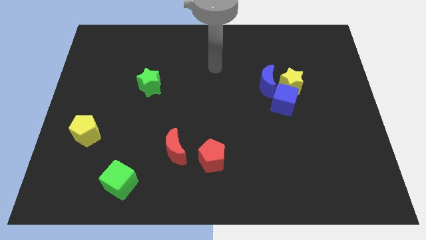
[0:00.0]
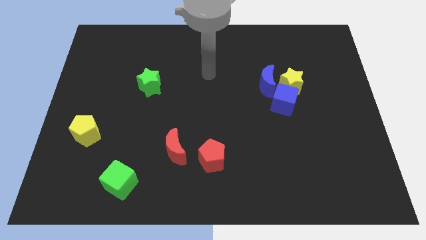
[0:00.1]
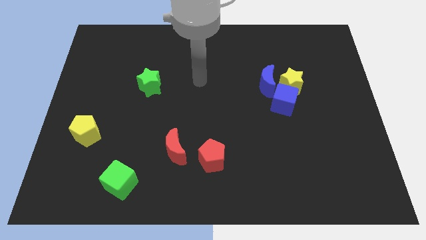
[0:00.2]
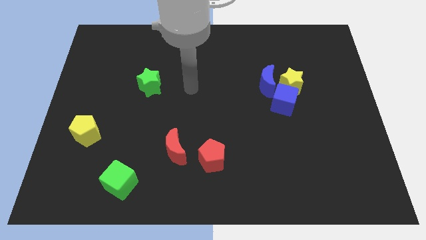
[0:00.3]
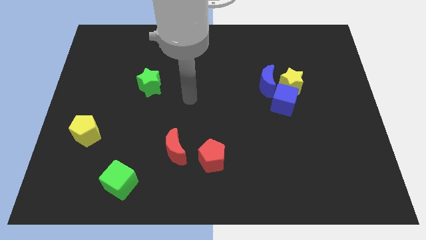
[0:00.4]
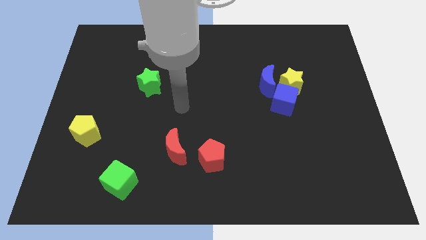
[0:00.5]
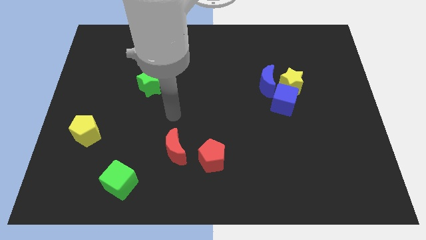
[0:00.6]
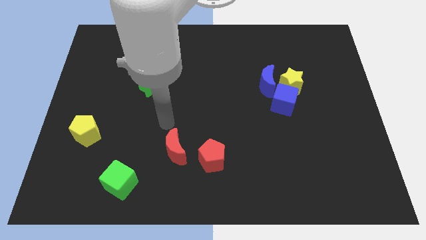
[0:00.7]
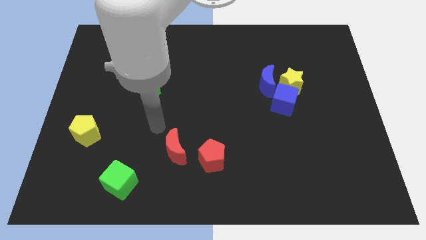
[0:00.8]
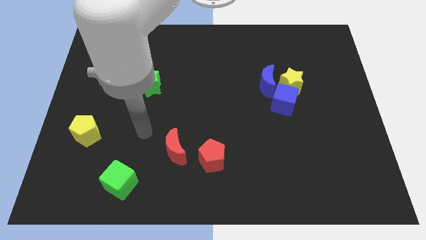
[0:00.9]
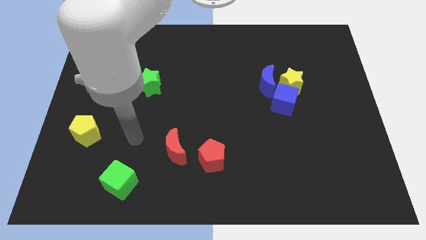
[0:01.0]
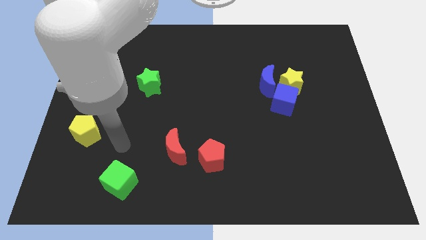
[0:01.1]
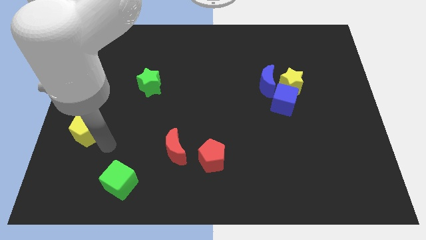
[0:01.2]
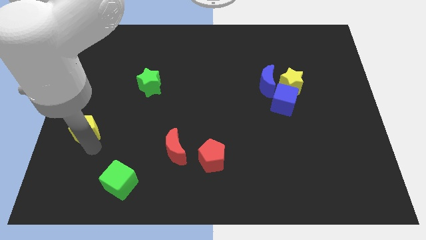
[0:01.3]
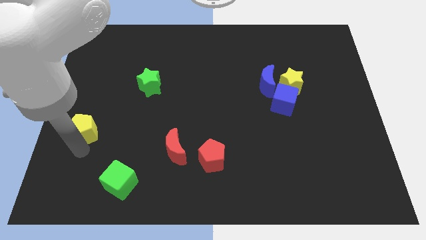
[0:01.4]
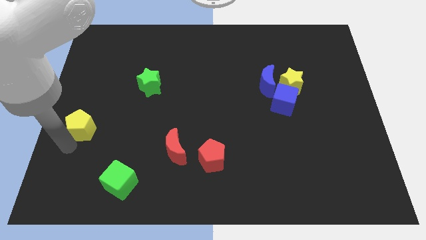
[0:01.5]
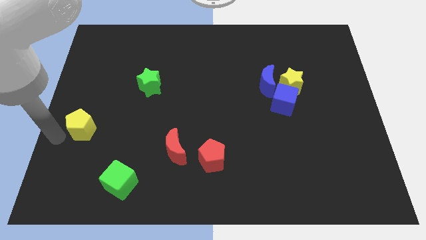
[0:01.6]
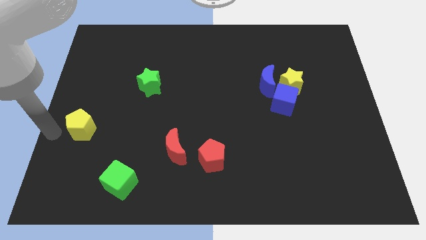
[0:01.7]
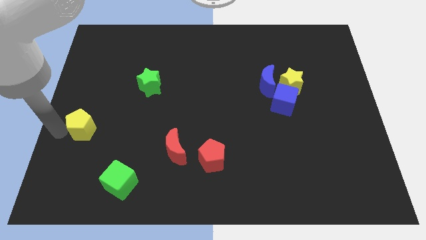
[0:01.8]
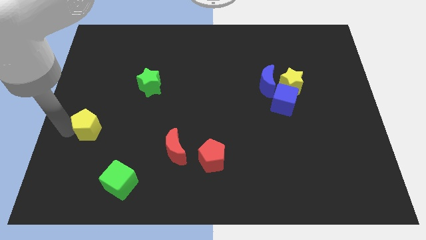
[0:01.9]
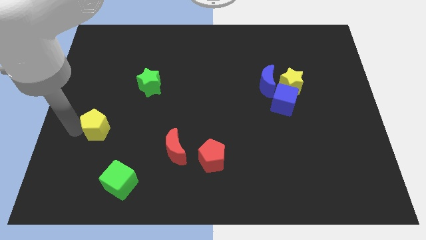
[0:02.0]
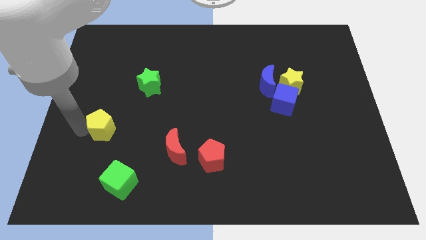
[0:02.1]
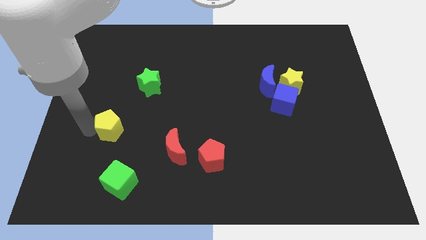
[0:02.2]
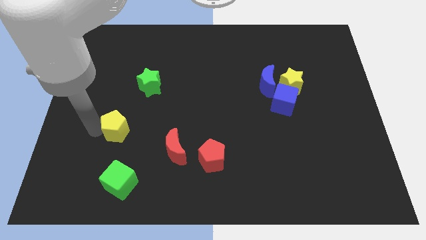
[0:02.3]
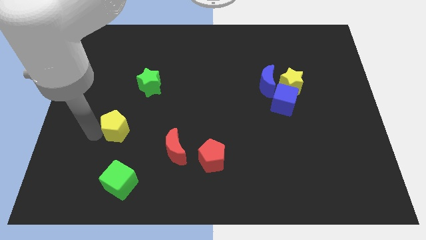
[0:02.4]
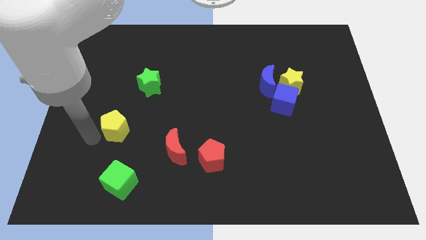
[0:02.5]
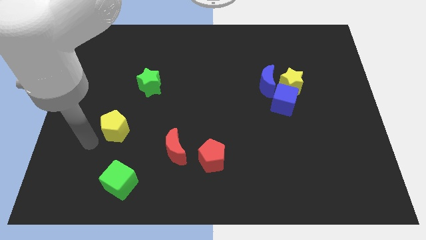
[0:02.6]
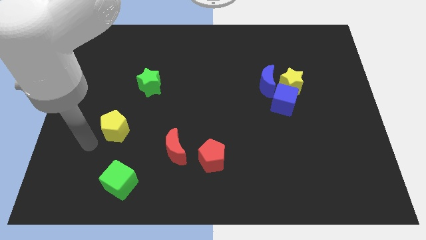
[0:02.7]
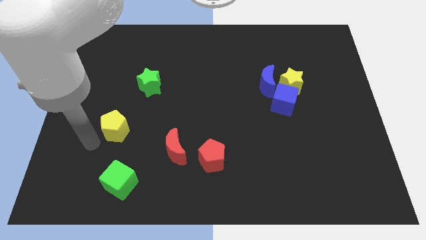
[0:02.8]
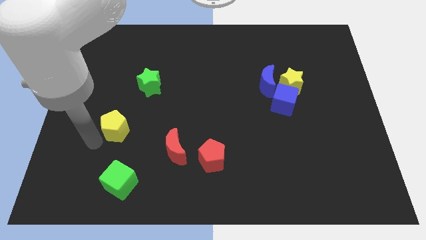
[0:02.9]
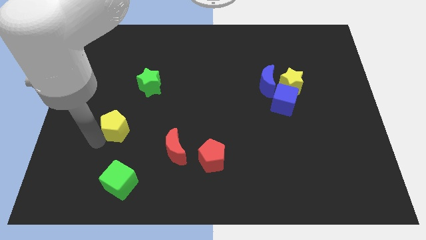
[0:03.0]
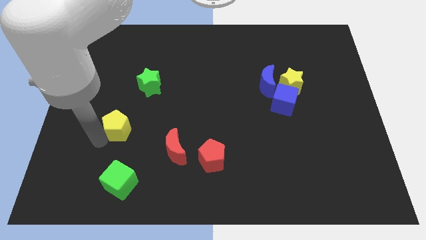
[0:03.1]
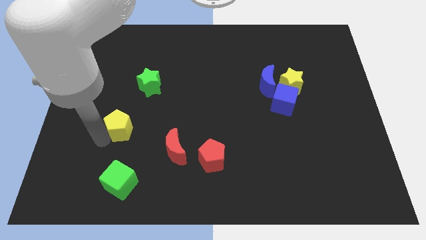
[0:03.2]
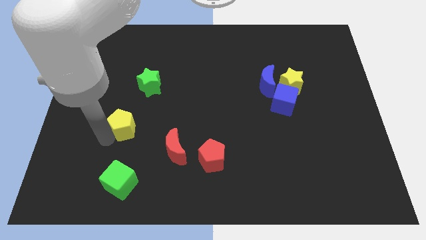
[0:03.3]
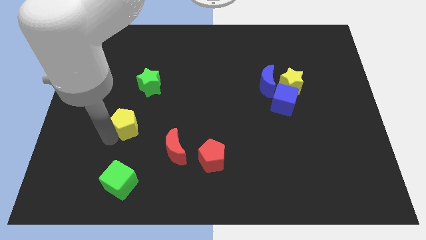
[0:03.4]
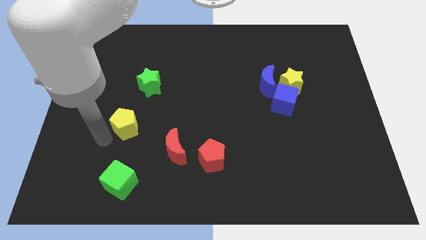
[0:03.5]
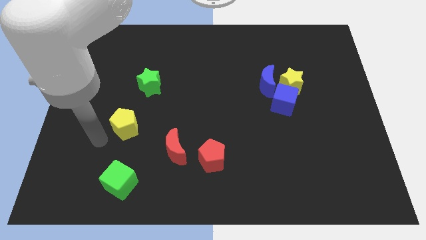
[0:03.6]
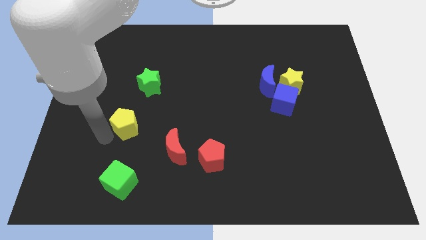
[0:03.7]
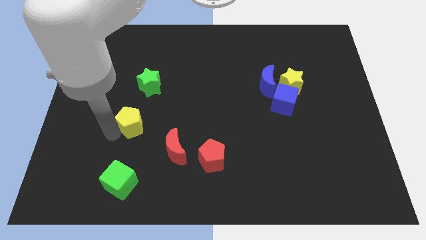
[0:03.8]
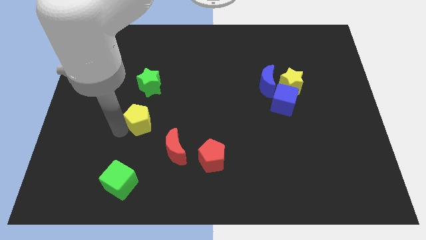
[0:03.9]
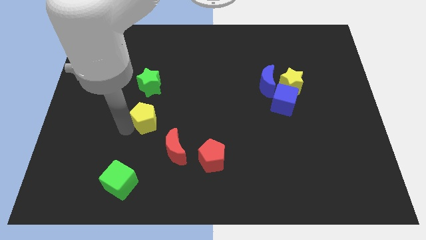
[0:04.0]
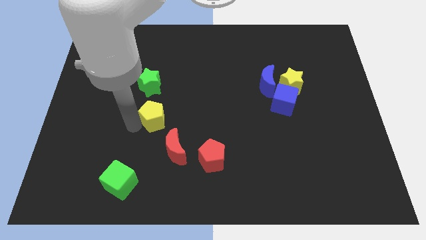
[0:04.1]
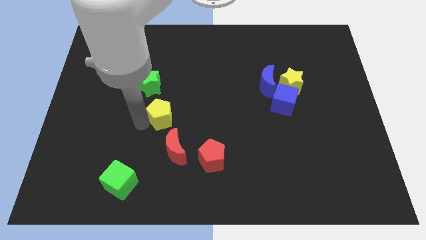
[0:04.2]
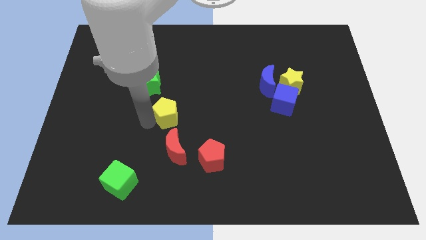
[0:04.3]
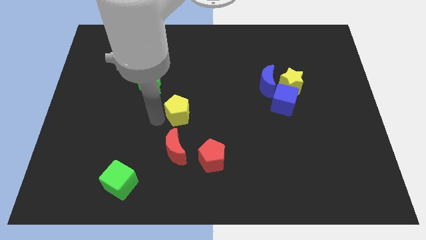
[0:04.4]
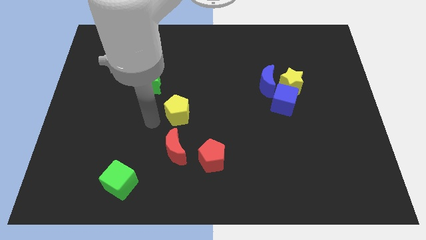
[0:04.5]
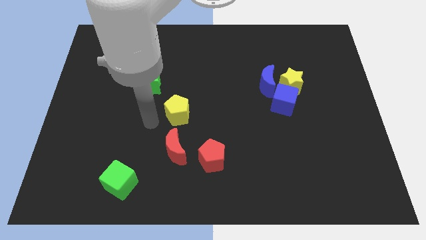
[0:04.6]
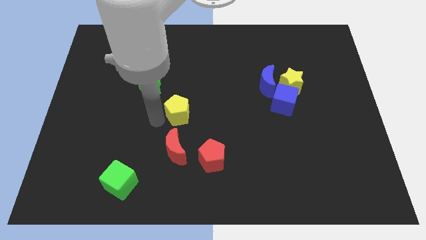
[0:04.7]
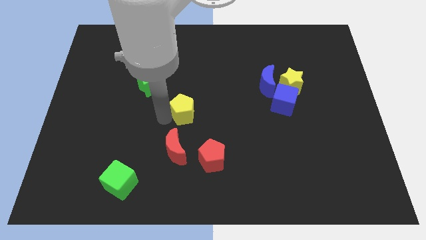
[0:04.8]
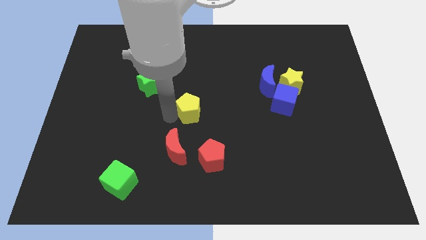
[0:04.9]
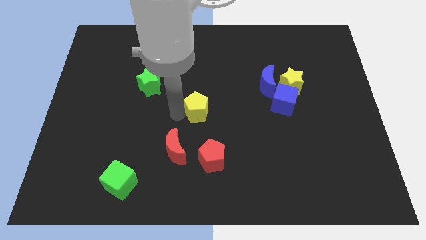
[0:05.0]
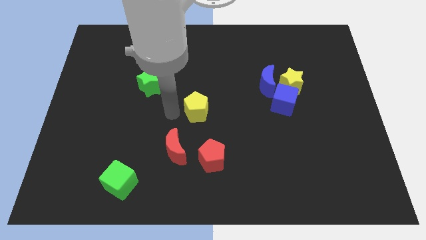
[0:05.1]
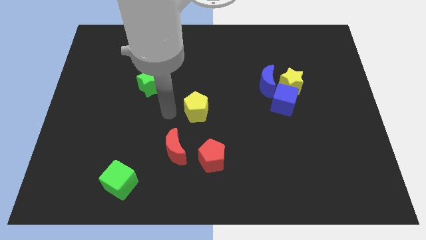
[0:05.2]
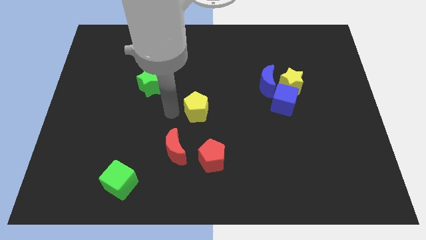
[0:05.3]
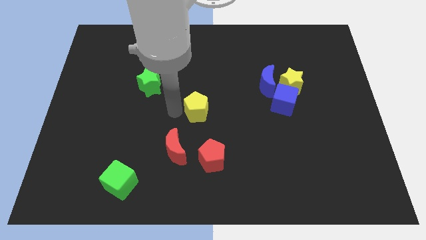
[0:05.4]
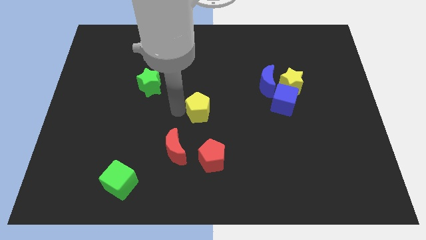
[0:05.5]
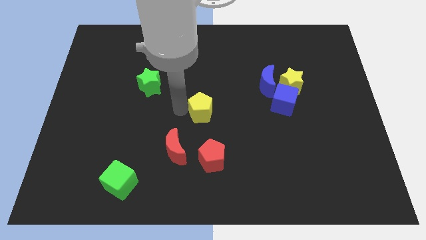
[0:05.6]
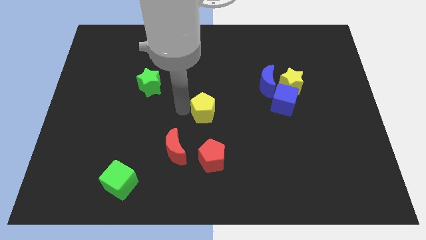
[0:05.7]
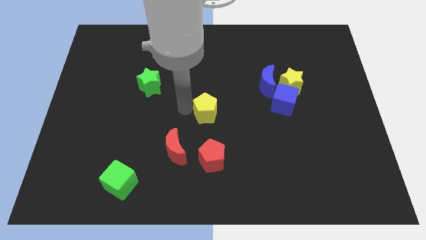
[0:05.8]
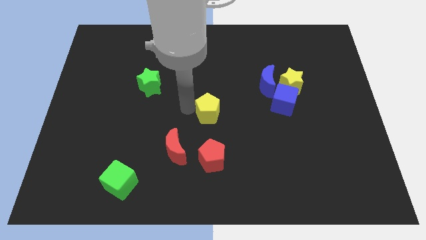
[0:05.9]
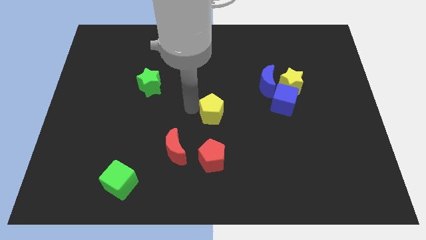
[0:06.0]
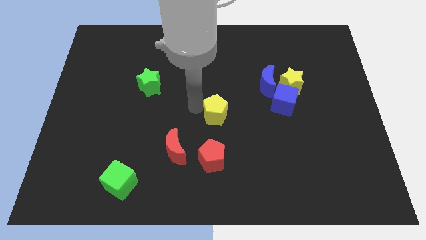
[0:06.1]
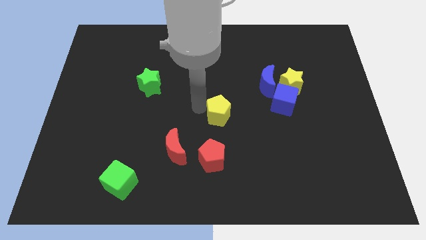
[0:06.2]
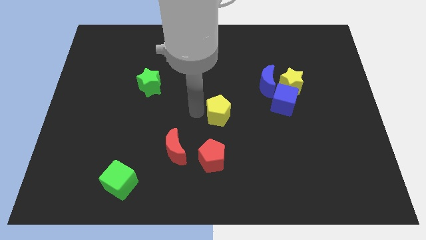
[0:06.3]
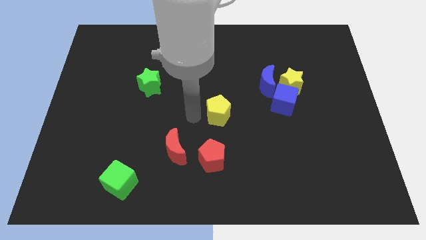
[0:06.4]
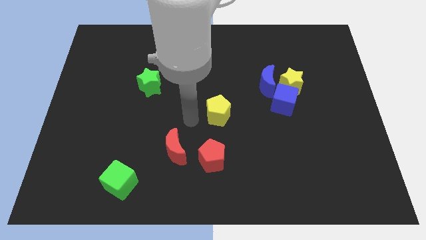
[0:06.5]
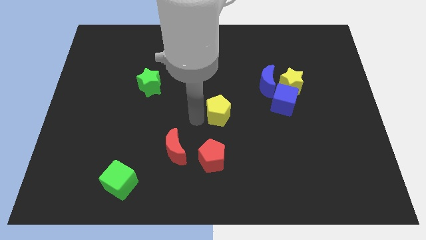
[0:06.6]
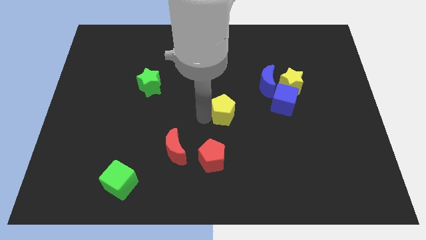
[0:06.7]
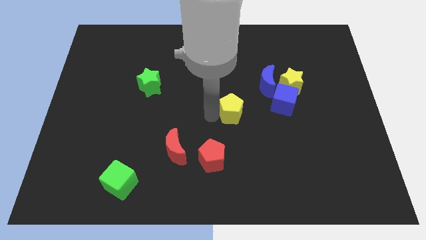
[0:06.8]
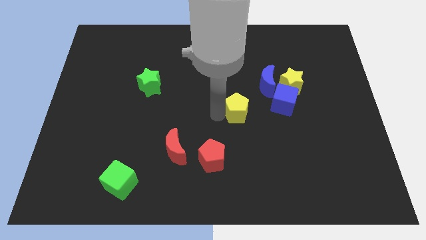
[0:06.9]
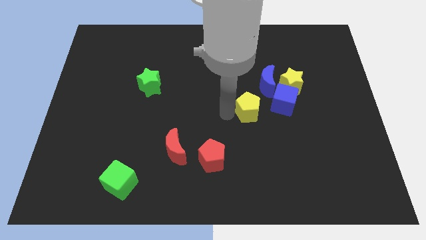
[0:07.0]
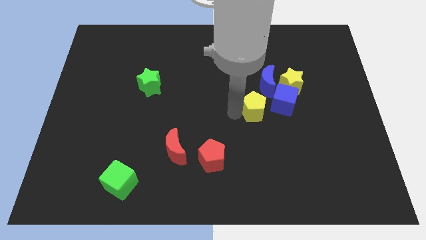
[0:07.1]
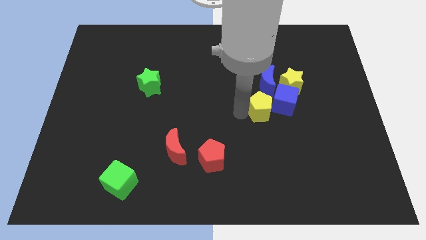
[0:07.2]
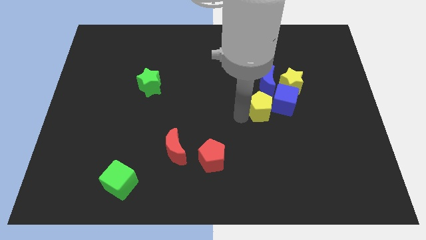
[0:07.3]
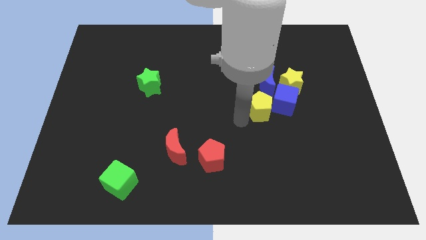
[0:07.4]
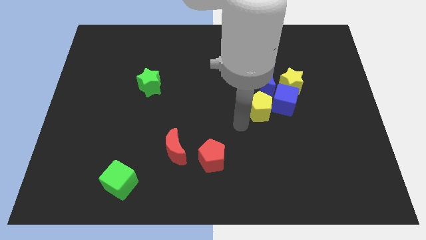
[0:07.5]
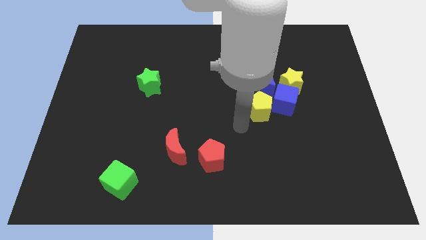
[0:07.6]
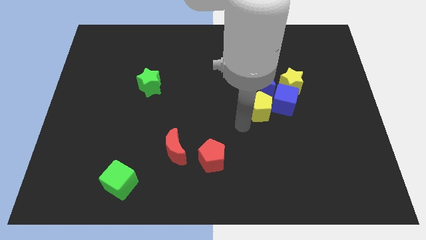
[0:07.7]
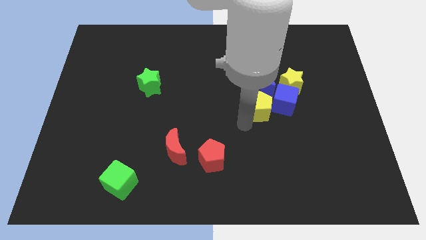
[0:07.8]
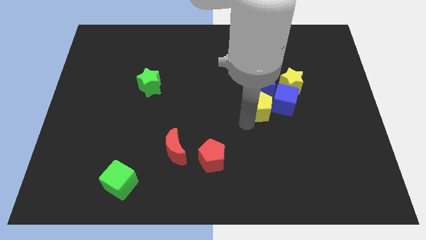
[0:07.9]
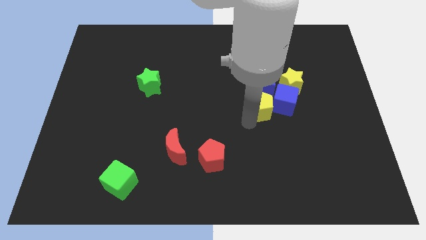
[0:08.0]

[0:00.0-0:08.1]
put the yellow pentagon to the blue cube
